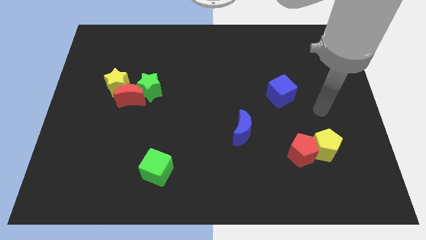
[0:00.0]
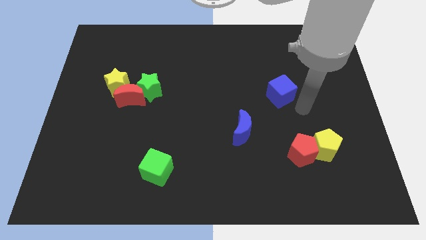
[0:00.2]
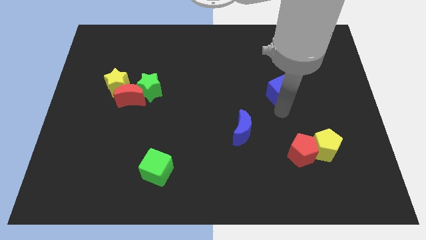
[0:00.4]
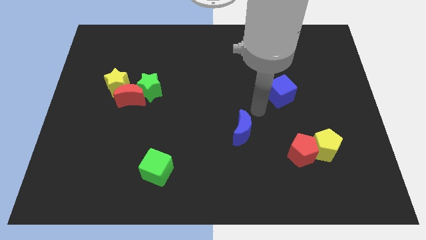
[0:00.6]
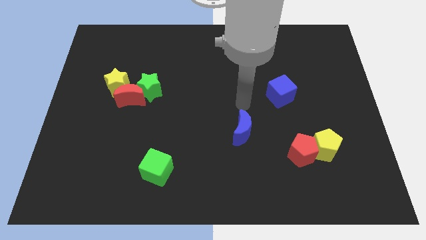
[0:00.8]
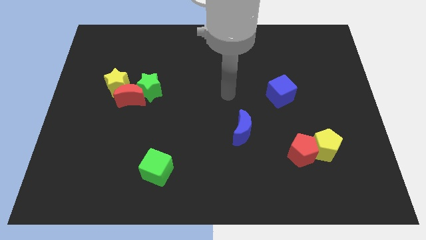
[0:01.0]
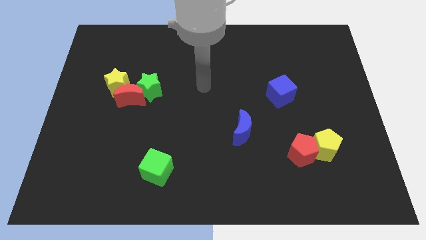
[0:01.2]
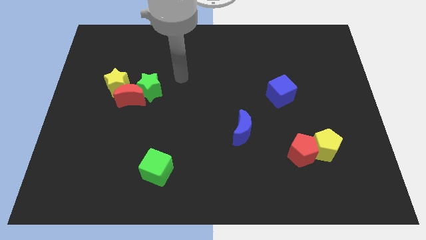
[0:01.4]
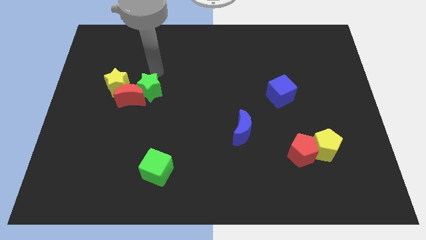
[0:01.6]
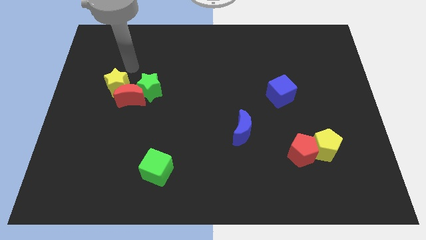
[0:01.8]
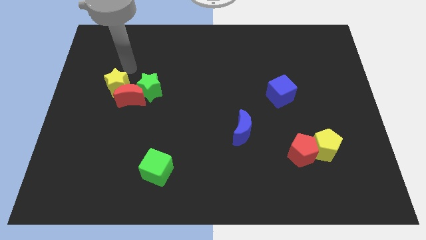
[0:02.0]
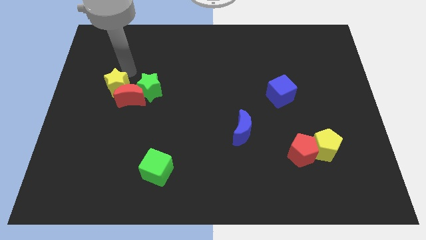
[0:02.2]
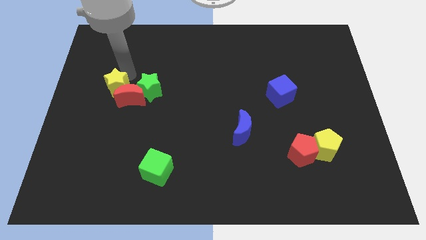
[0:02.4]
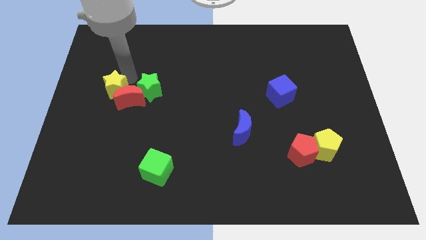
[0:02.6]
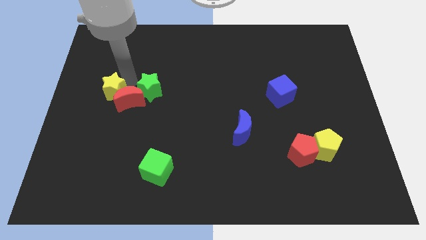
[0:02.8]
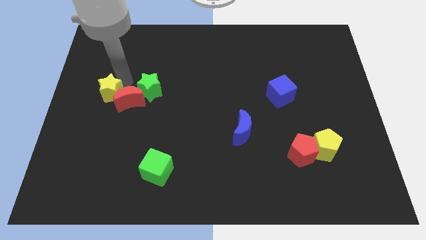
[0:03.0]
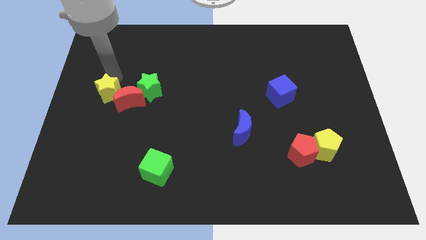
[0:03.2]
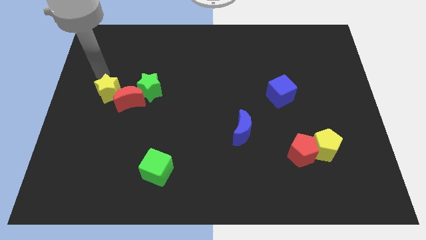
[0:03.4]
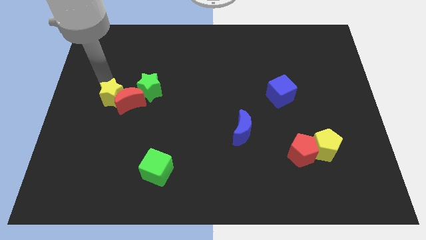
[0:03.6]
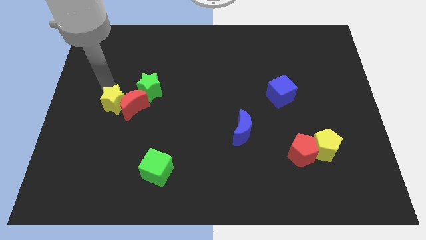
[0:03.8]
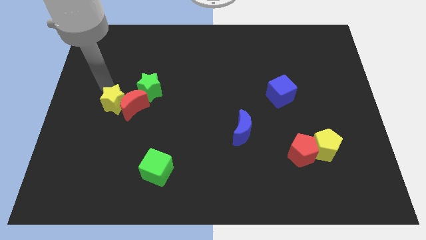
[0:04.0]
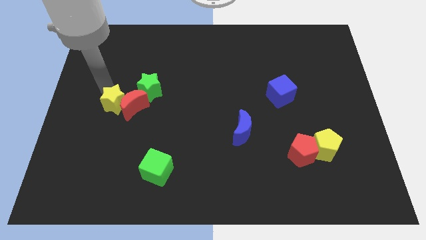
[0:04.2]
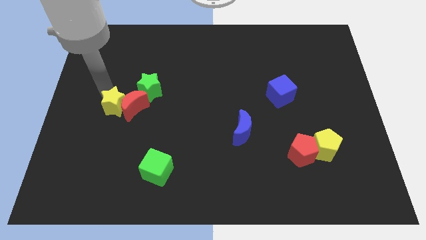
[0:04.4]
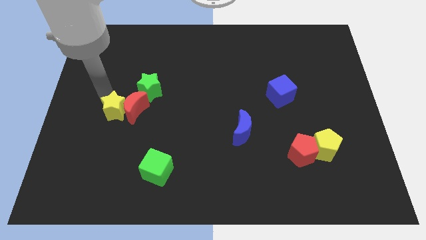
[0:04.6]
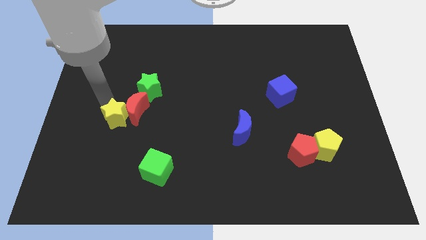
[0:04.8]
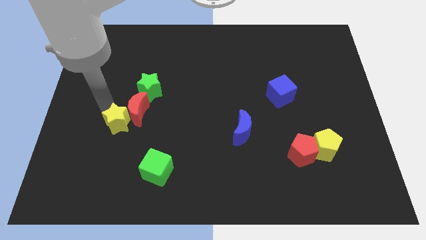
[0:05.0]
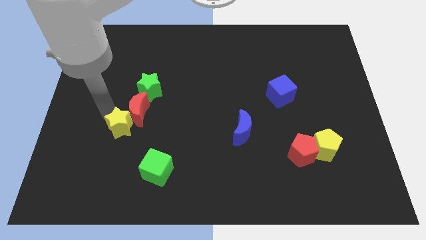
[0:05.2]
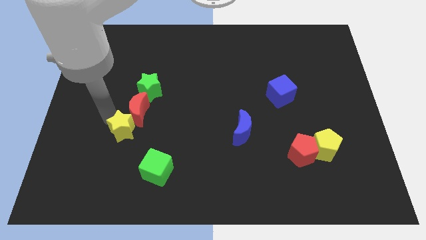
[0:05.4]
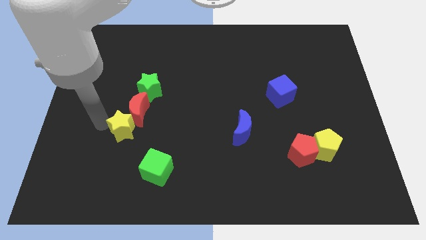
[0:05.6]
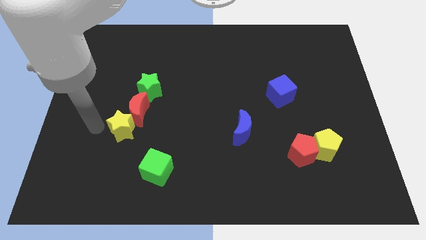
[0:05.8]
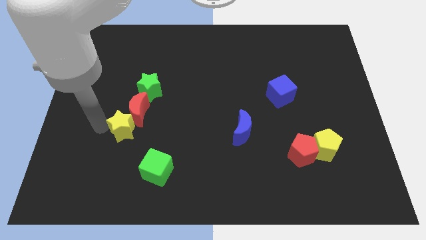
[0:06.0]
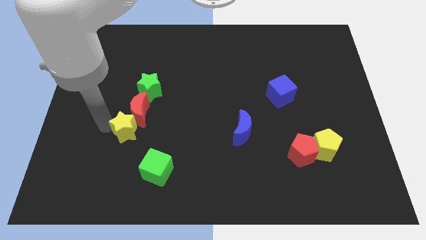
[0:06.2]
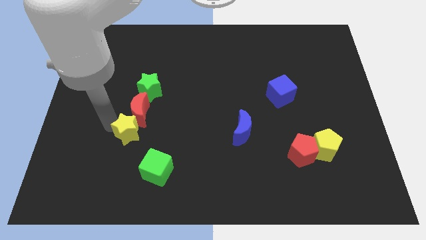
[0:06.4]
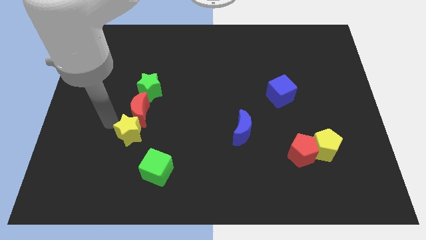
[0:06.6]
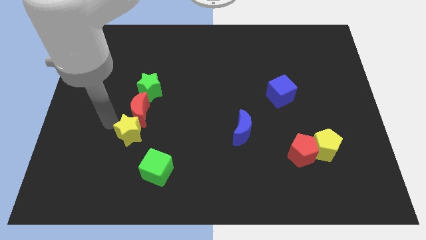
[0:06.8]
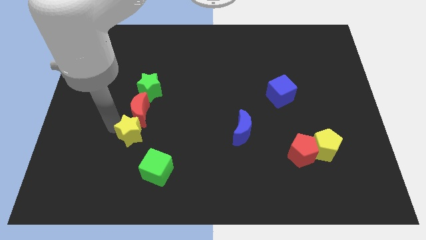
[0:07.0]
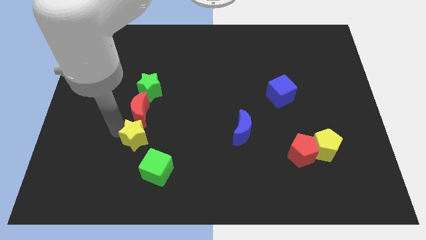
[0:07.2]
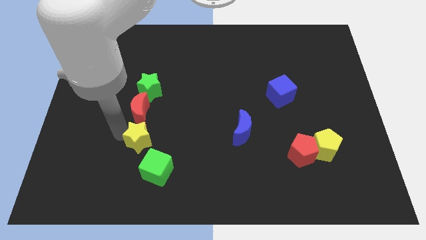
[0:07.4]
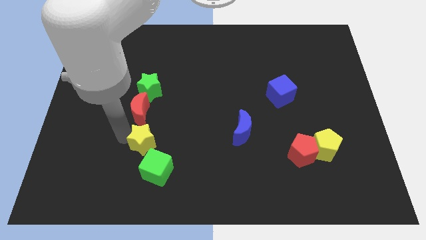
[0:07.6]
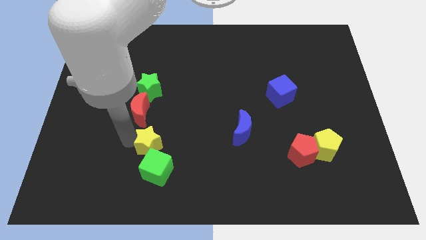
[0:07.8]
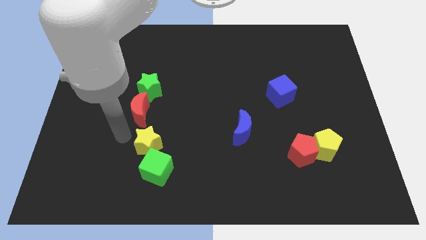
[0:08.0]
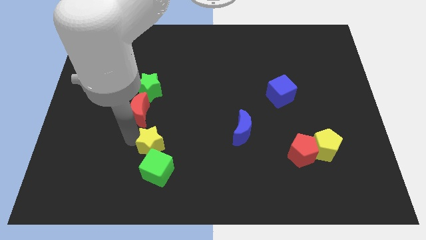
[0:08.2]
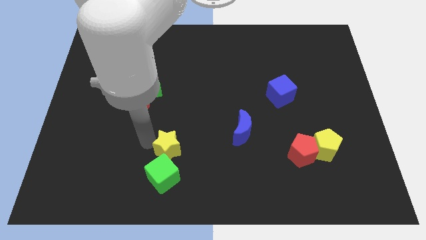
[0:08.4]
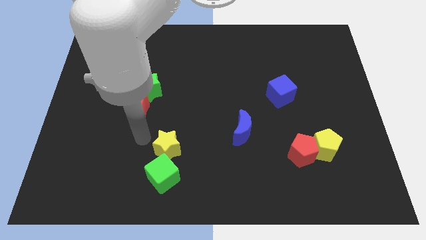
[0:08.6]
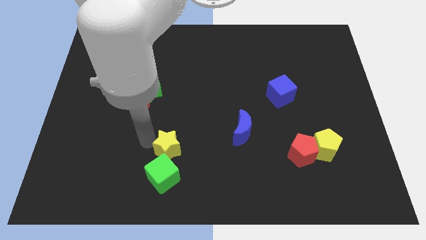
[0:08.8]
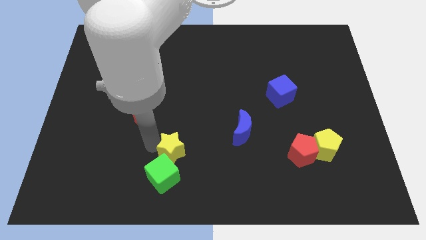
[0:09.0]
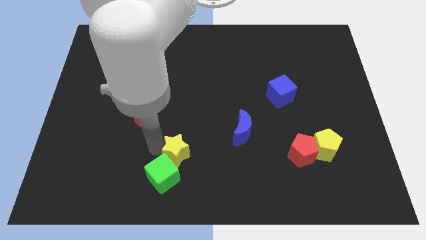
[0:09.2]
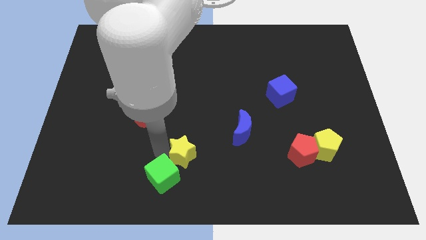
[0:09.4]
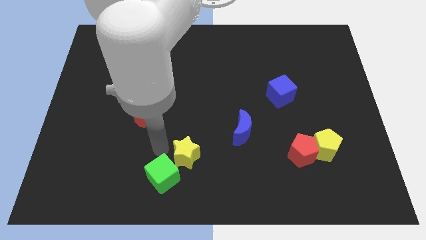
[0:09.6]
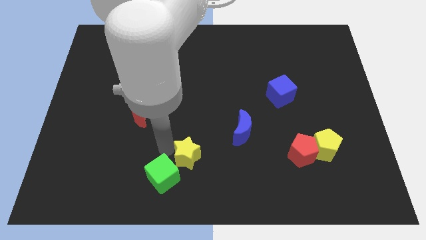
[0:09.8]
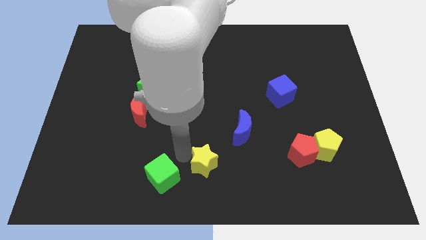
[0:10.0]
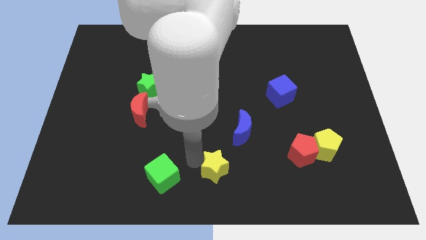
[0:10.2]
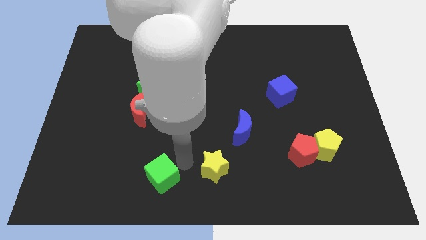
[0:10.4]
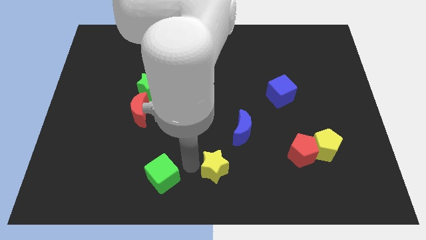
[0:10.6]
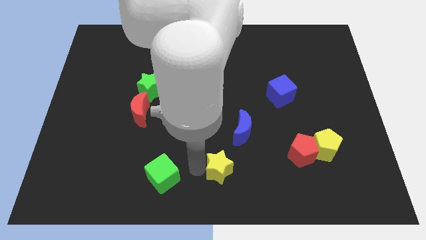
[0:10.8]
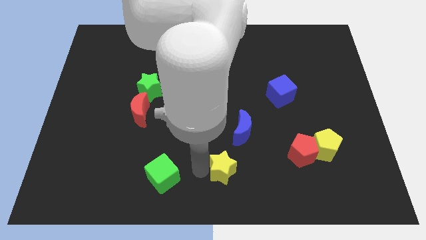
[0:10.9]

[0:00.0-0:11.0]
move the yellow star to the bottom side of the blue moon

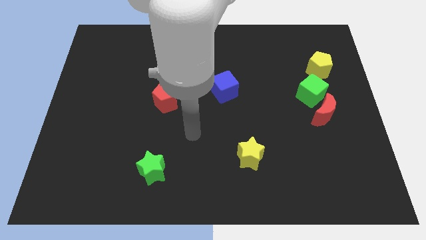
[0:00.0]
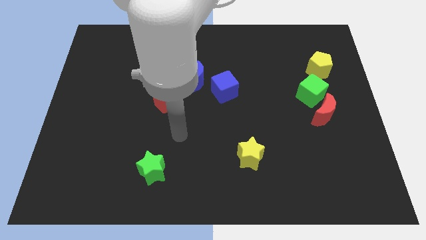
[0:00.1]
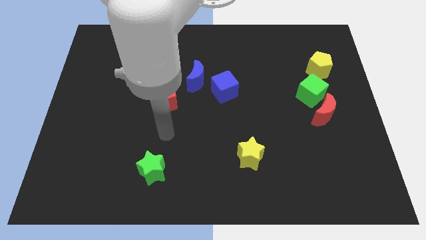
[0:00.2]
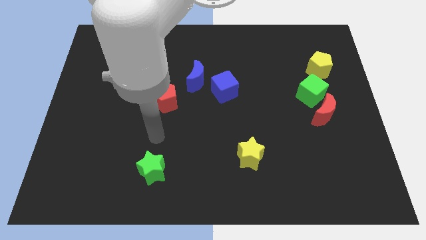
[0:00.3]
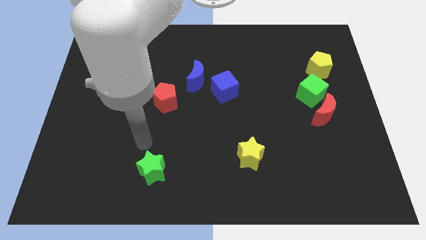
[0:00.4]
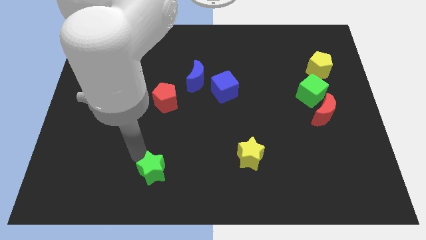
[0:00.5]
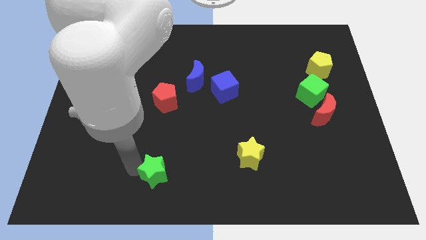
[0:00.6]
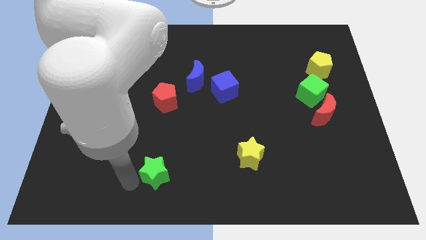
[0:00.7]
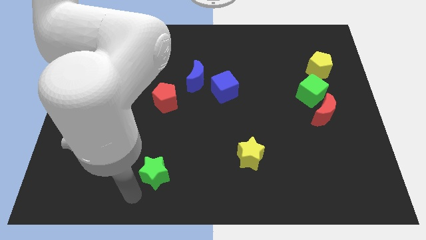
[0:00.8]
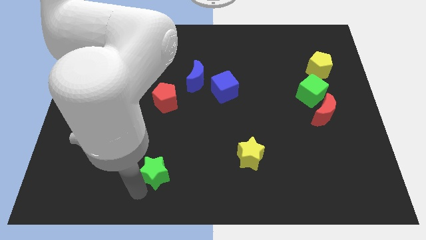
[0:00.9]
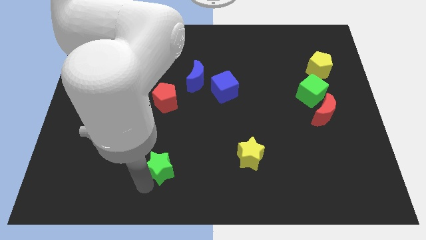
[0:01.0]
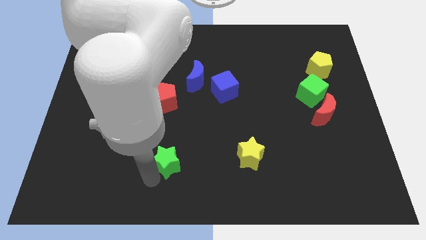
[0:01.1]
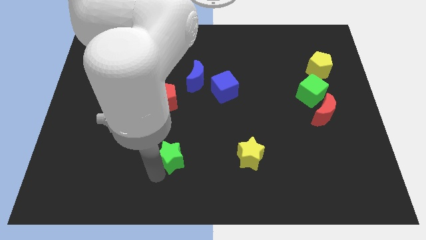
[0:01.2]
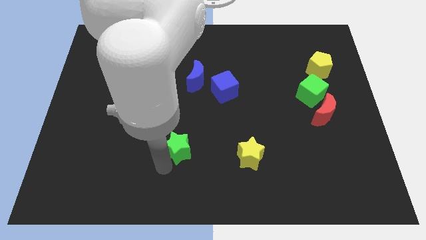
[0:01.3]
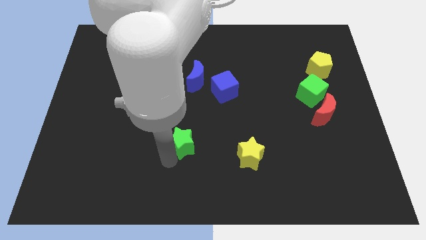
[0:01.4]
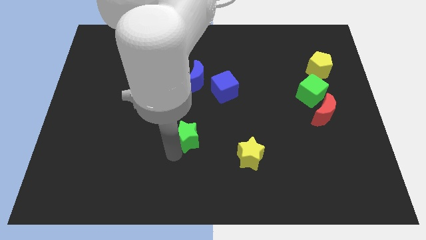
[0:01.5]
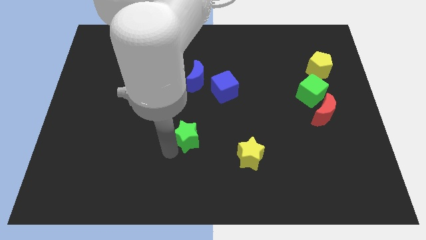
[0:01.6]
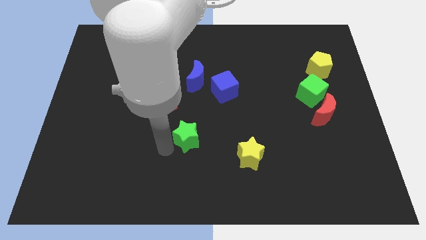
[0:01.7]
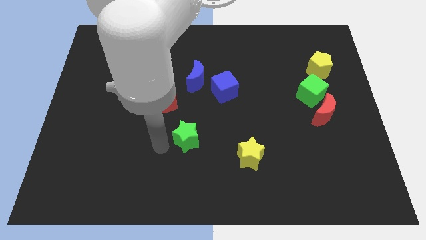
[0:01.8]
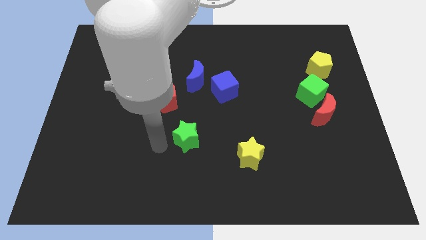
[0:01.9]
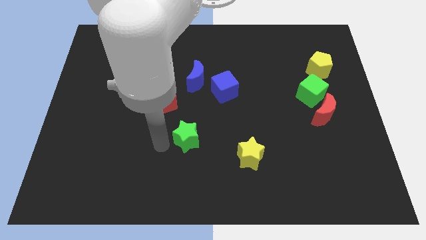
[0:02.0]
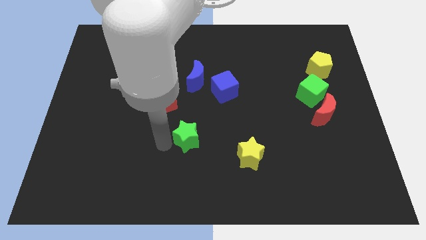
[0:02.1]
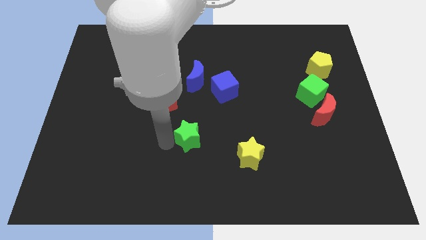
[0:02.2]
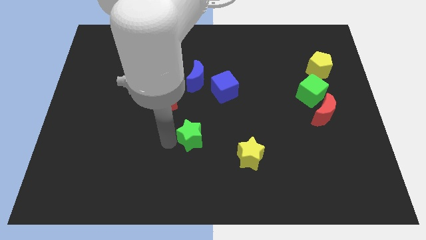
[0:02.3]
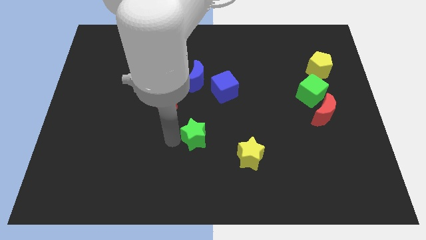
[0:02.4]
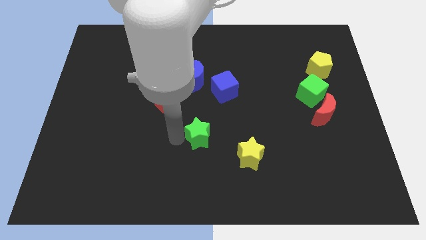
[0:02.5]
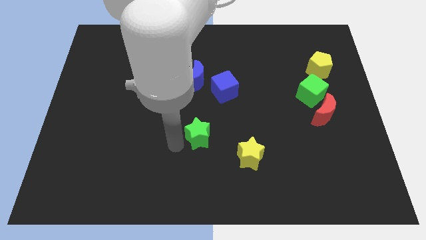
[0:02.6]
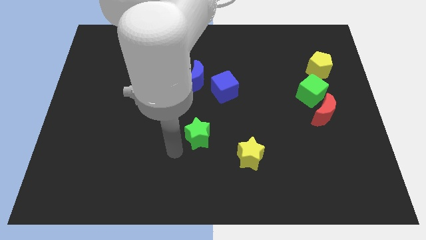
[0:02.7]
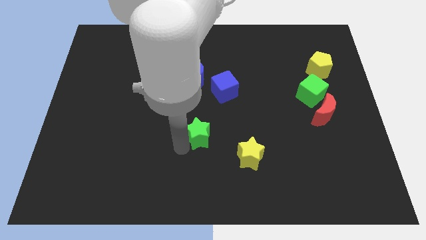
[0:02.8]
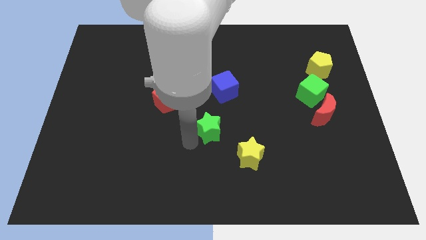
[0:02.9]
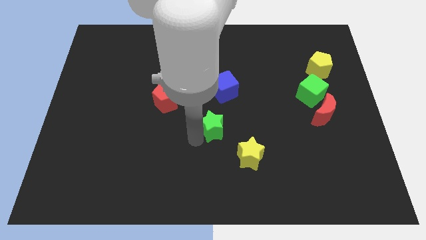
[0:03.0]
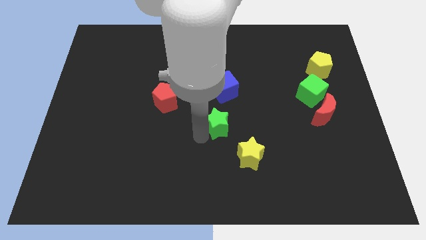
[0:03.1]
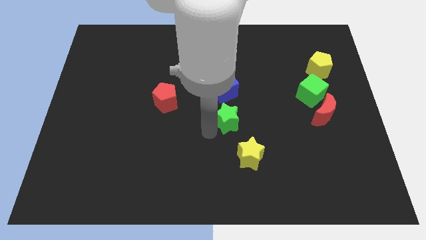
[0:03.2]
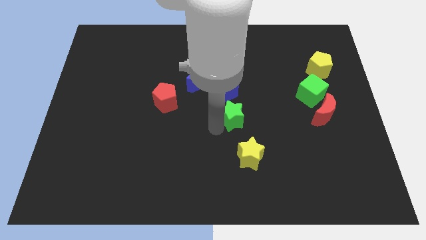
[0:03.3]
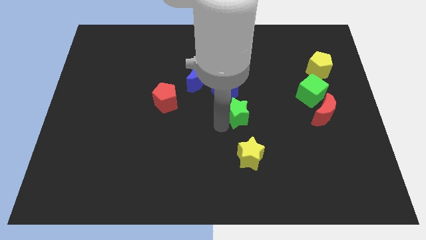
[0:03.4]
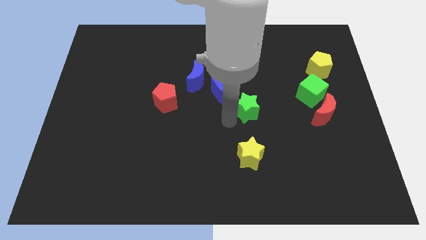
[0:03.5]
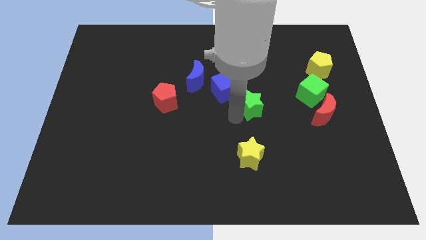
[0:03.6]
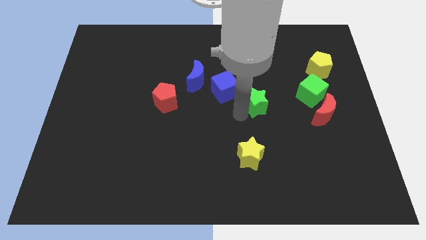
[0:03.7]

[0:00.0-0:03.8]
put the green star right of the blue cube
